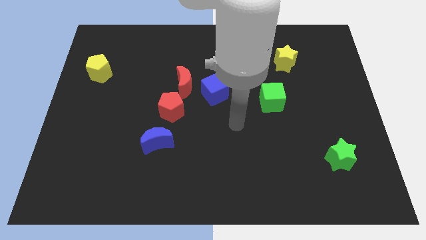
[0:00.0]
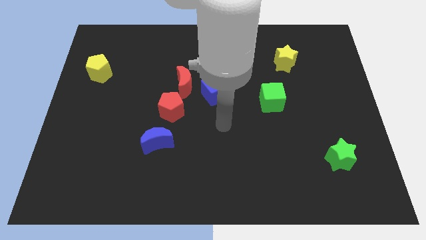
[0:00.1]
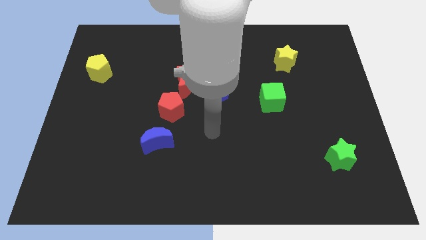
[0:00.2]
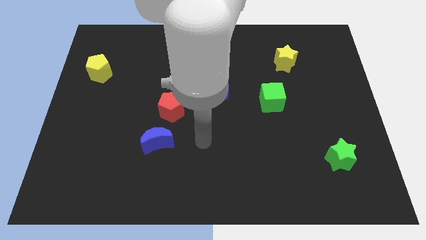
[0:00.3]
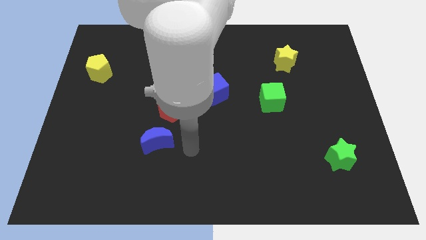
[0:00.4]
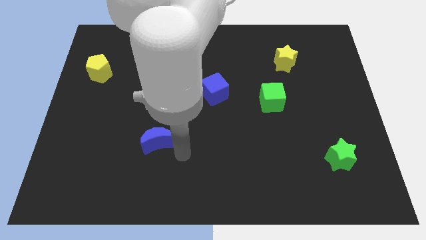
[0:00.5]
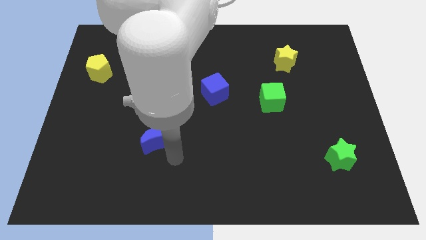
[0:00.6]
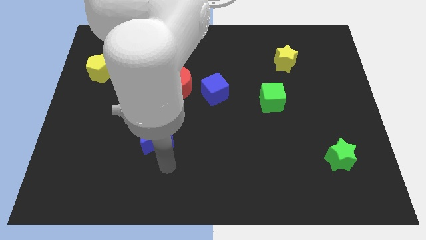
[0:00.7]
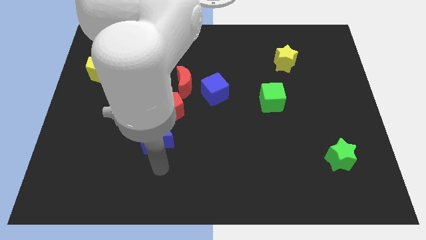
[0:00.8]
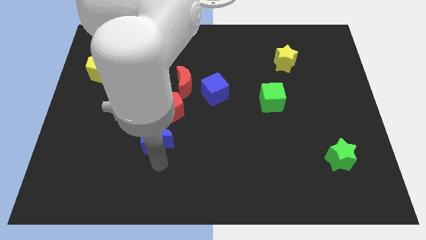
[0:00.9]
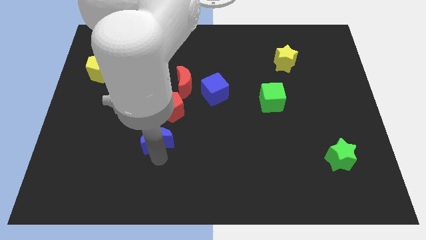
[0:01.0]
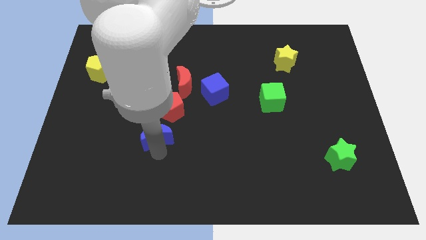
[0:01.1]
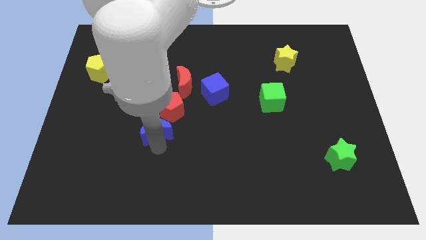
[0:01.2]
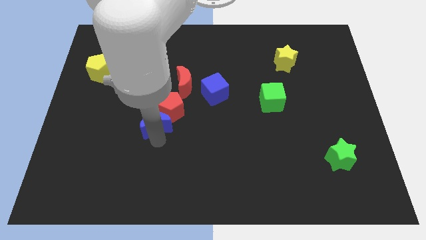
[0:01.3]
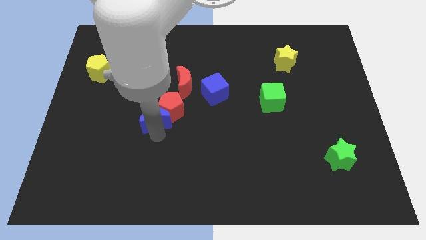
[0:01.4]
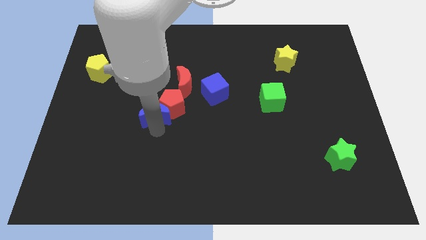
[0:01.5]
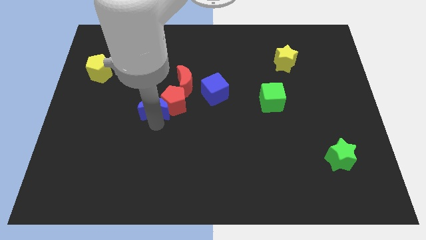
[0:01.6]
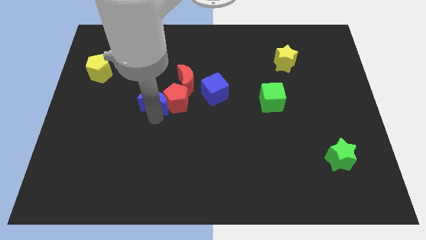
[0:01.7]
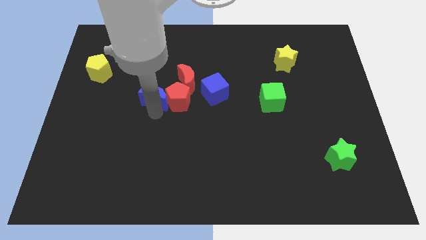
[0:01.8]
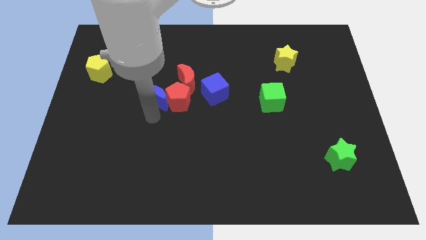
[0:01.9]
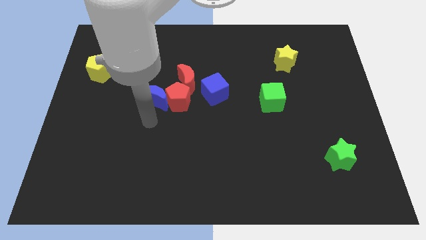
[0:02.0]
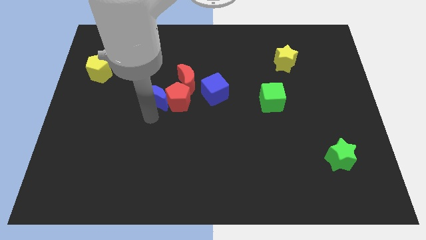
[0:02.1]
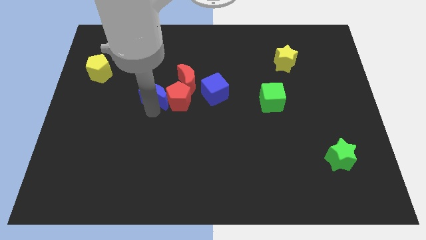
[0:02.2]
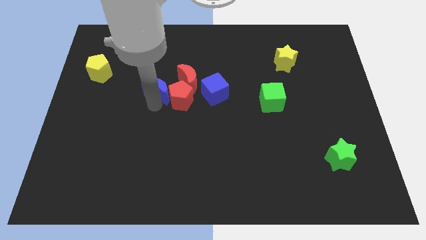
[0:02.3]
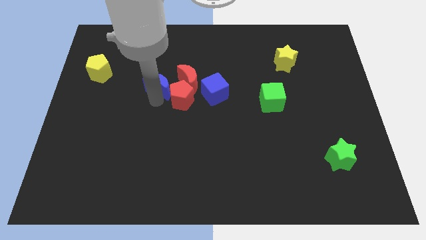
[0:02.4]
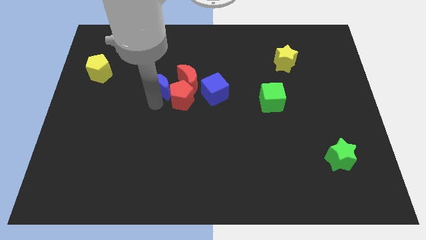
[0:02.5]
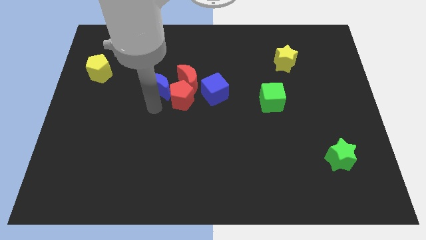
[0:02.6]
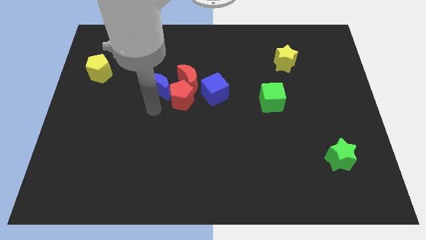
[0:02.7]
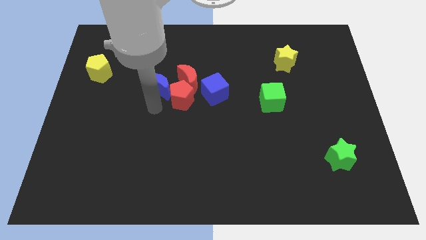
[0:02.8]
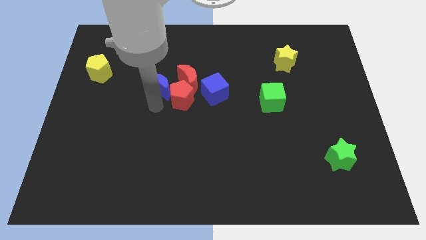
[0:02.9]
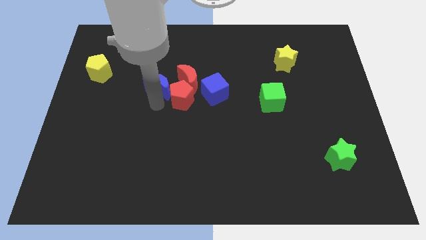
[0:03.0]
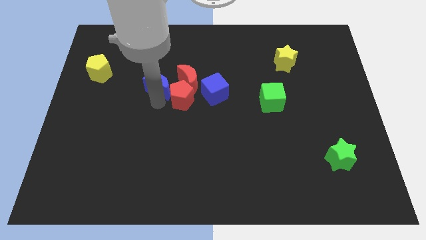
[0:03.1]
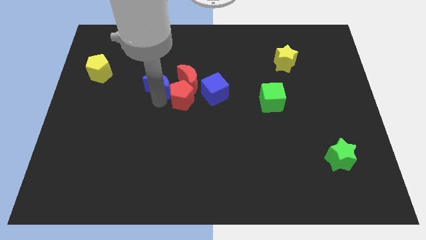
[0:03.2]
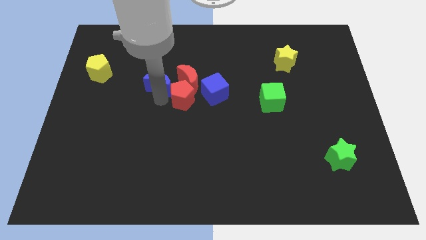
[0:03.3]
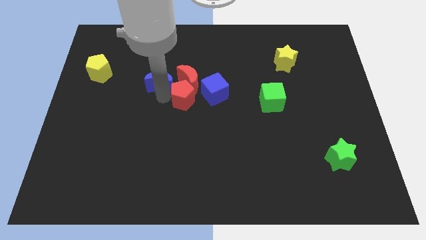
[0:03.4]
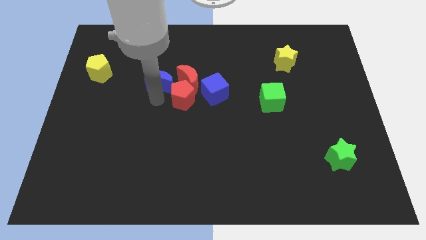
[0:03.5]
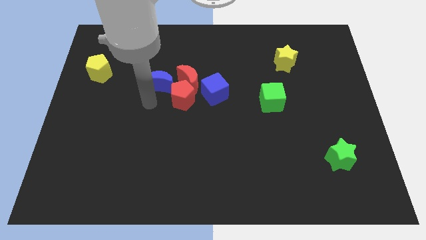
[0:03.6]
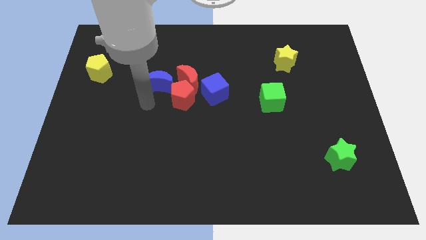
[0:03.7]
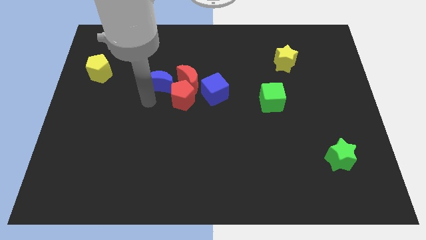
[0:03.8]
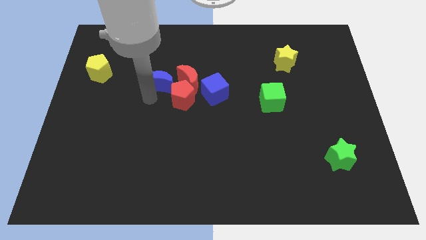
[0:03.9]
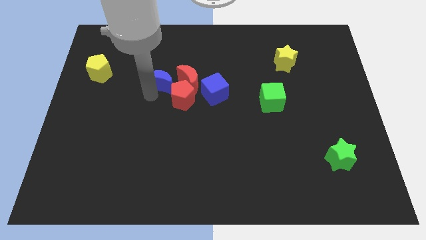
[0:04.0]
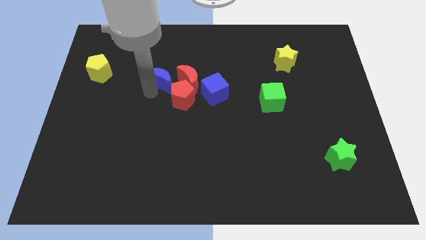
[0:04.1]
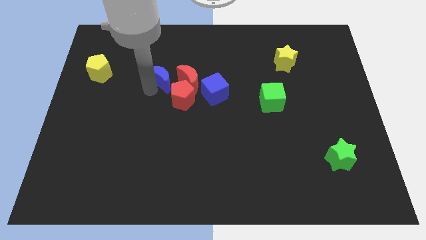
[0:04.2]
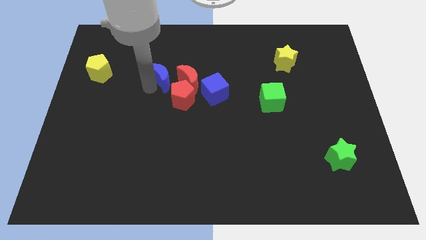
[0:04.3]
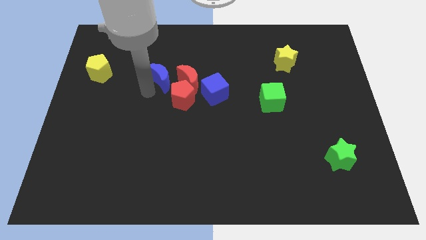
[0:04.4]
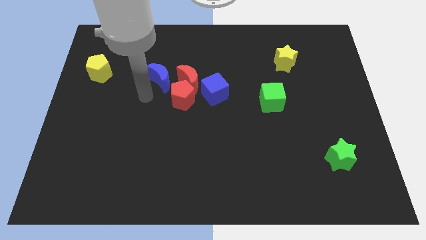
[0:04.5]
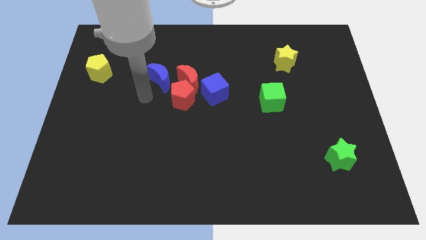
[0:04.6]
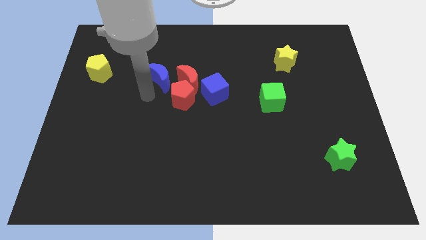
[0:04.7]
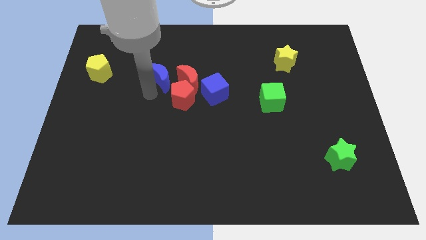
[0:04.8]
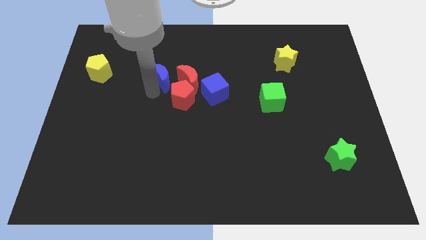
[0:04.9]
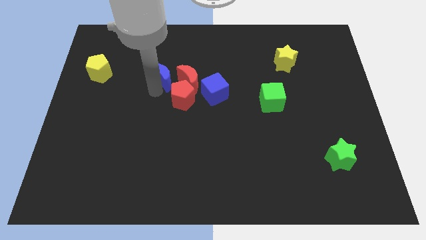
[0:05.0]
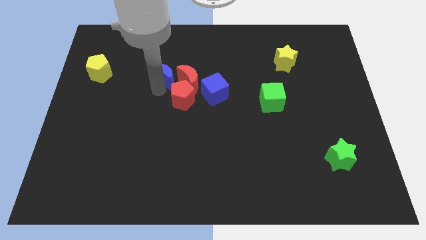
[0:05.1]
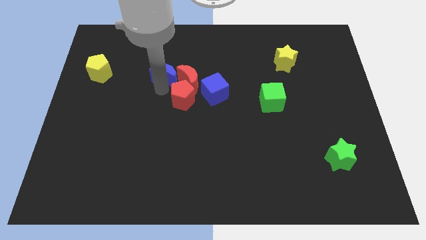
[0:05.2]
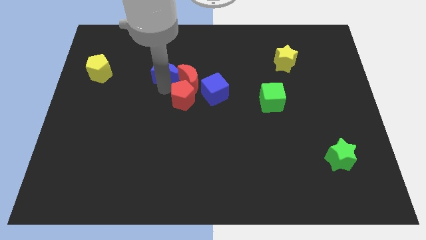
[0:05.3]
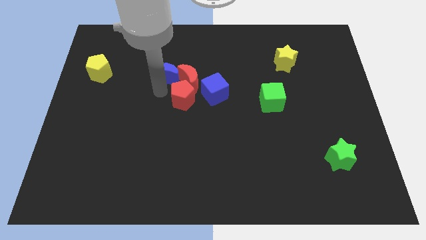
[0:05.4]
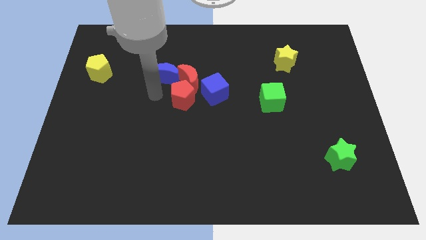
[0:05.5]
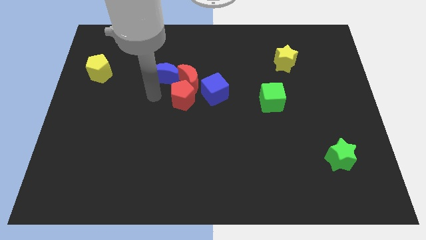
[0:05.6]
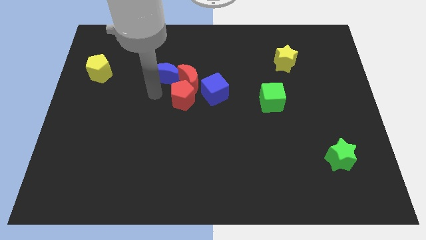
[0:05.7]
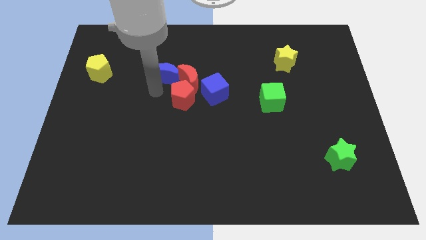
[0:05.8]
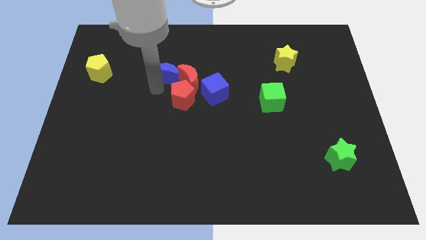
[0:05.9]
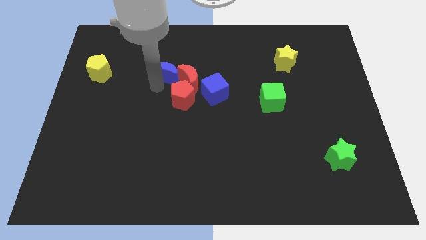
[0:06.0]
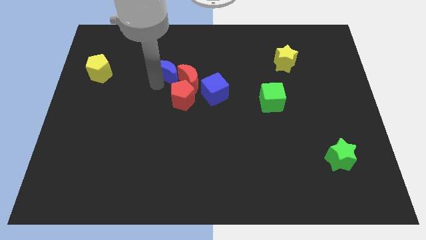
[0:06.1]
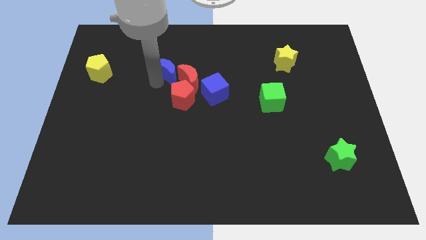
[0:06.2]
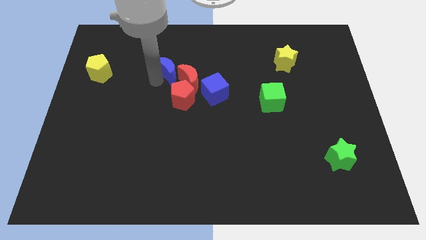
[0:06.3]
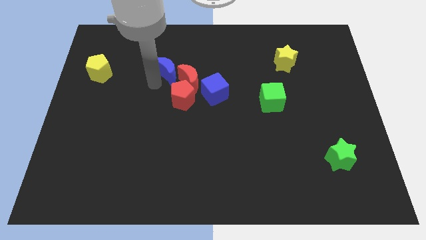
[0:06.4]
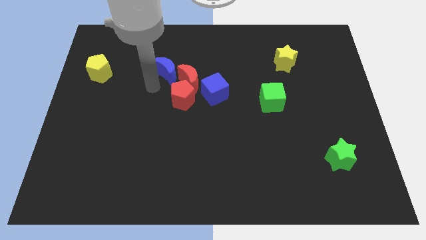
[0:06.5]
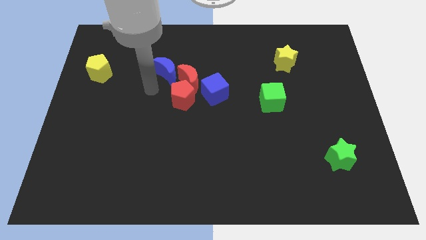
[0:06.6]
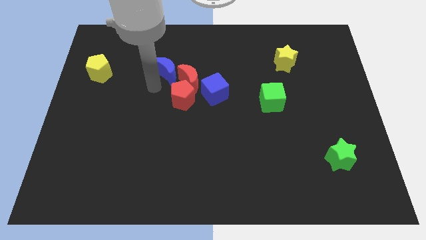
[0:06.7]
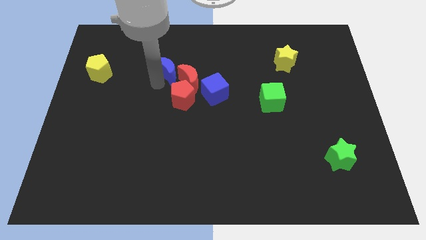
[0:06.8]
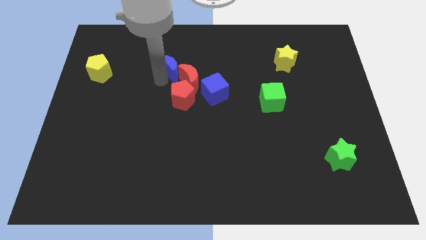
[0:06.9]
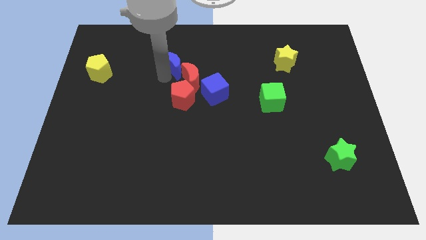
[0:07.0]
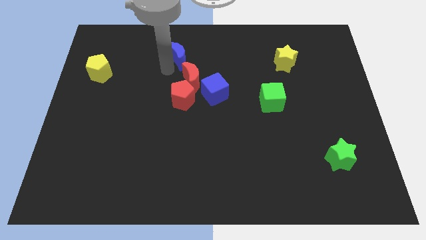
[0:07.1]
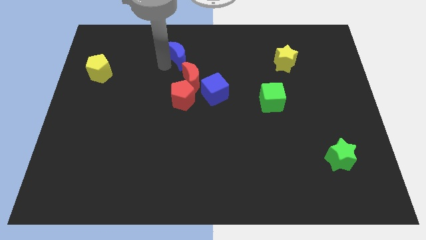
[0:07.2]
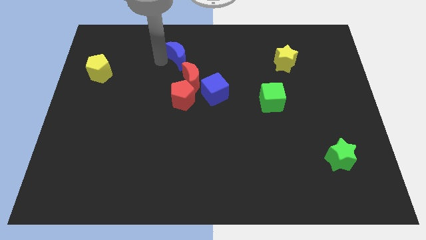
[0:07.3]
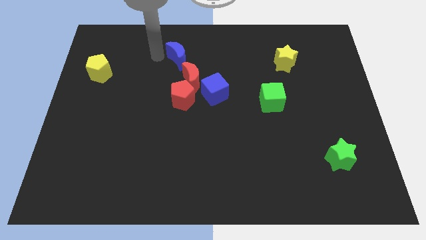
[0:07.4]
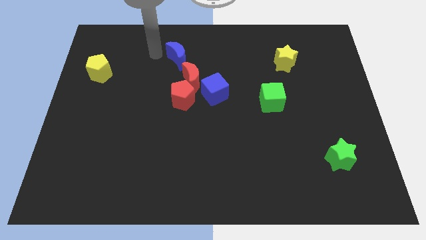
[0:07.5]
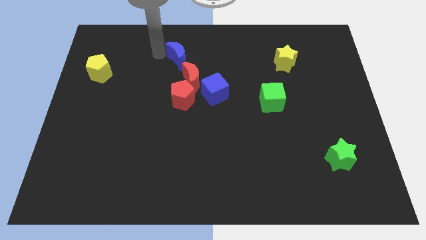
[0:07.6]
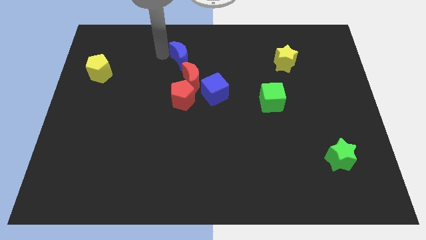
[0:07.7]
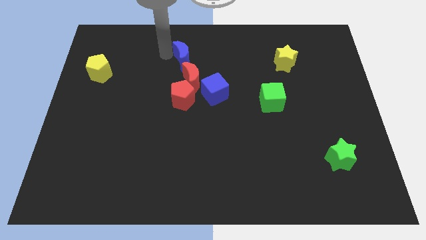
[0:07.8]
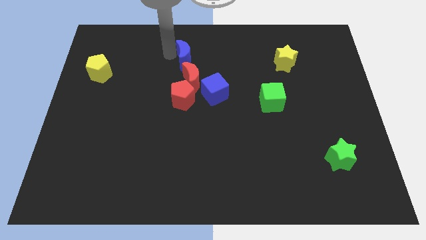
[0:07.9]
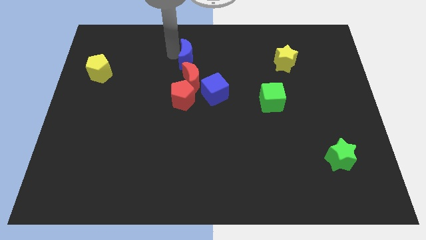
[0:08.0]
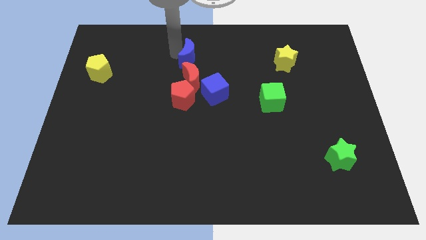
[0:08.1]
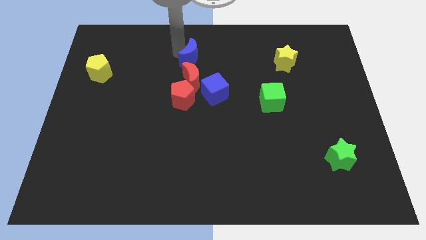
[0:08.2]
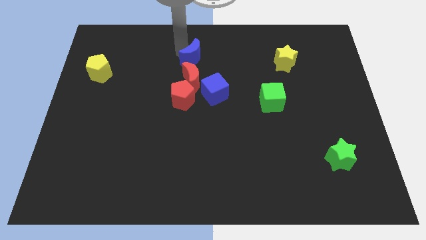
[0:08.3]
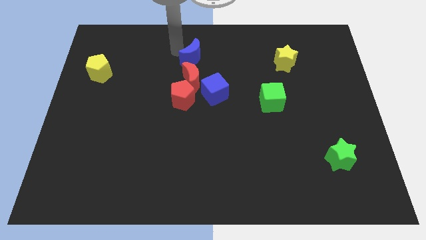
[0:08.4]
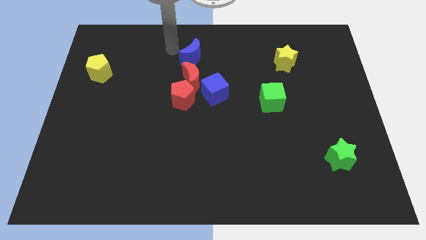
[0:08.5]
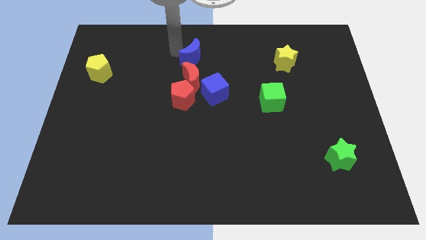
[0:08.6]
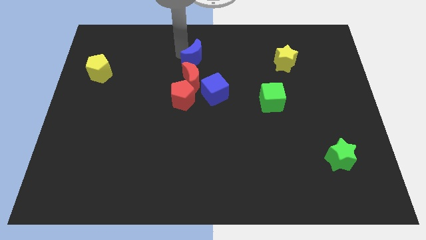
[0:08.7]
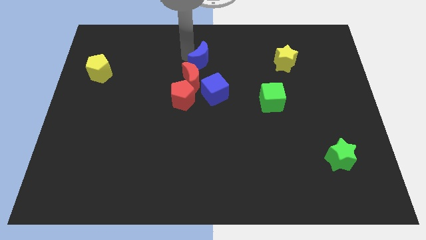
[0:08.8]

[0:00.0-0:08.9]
push the blue moon diagonally up and to the right of the red moon
